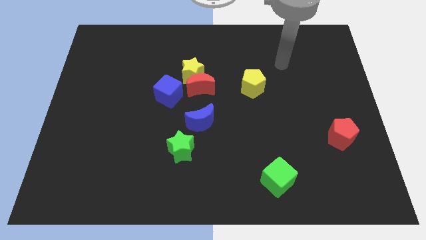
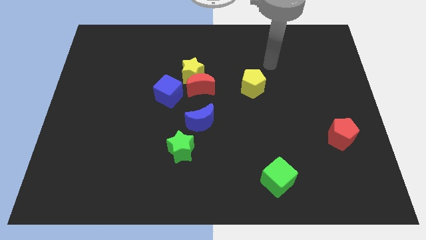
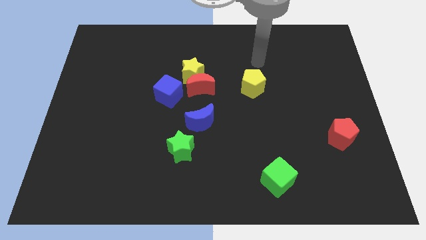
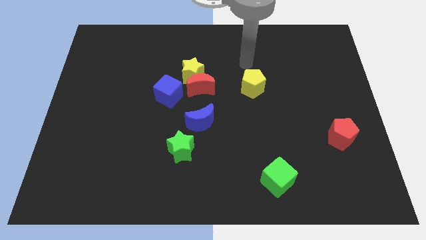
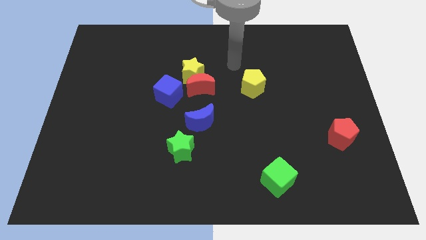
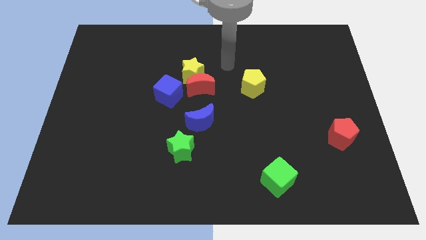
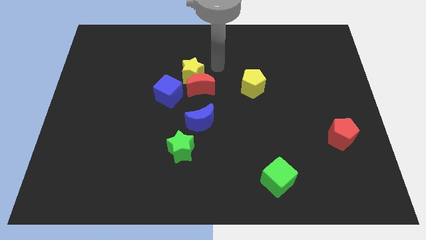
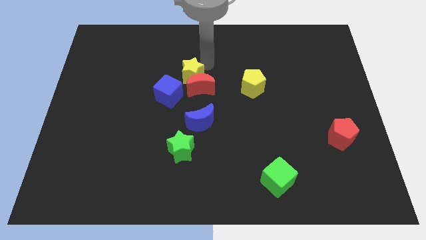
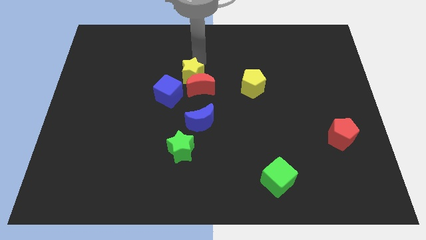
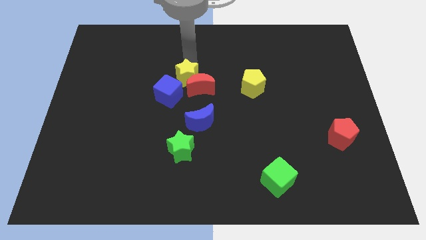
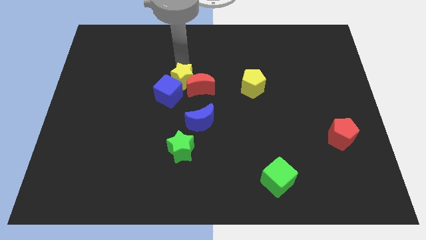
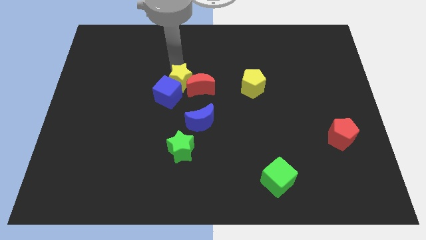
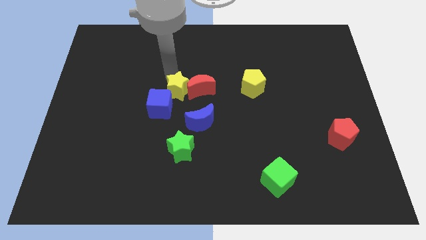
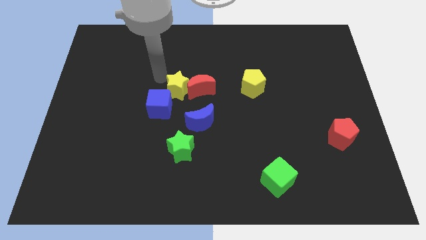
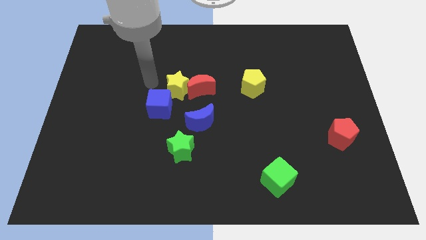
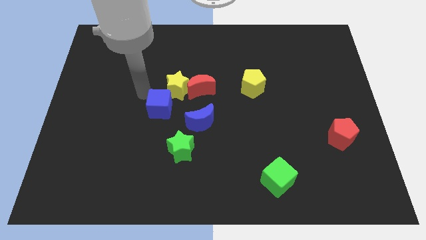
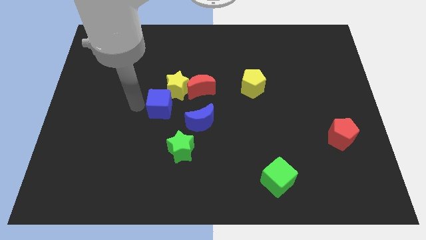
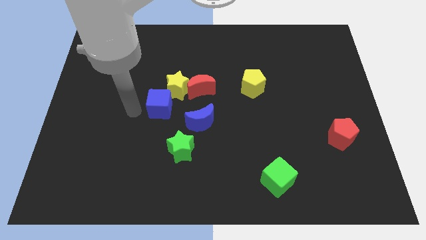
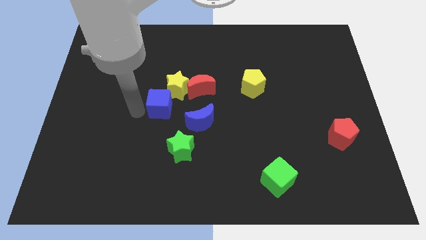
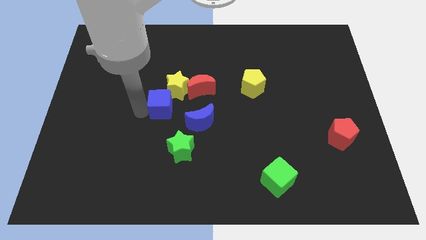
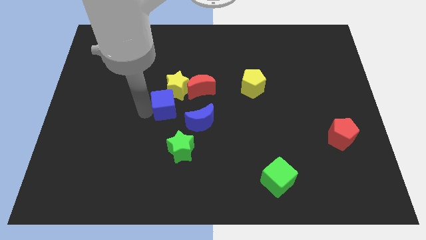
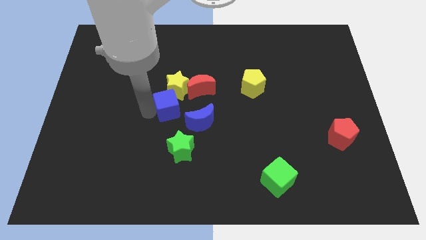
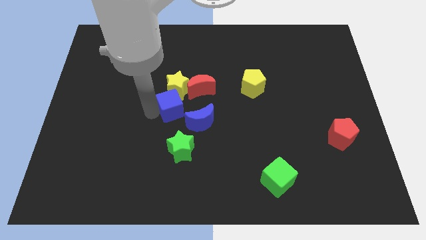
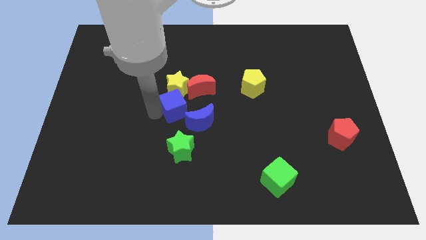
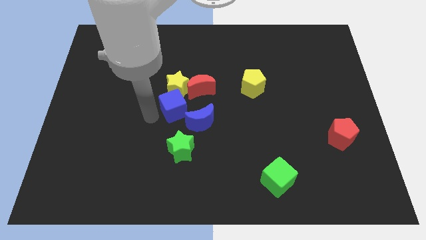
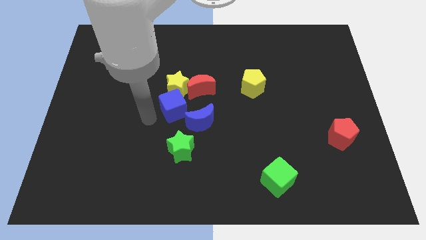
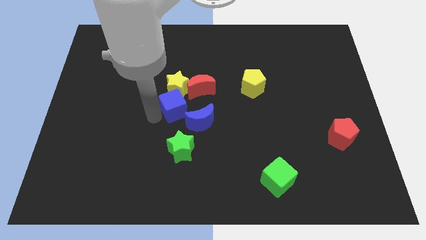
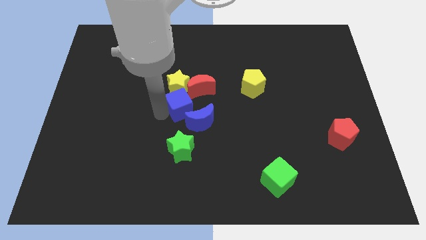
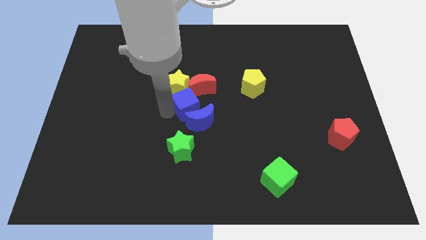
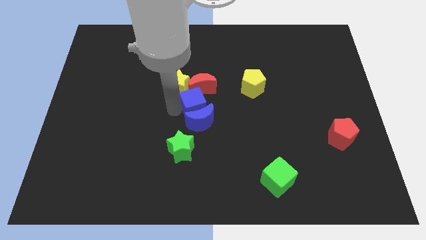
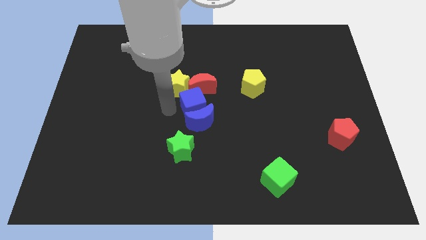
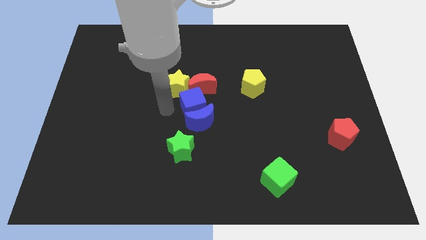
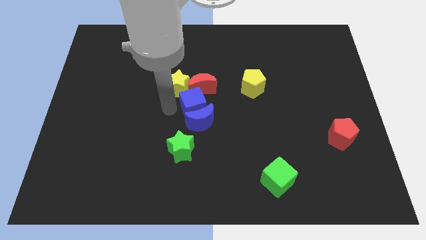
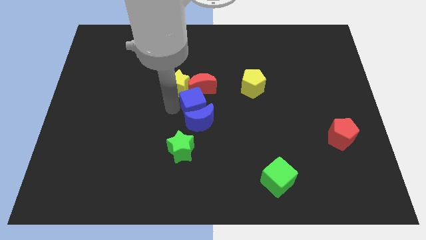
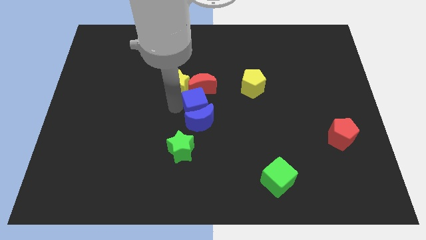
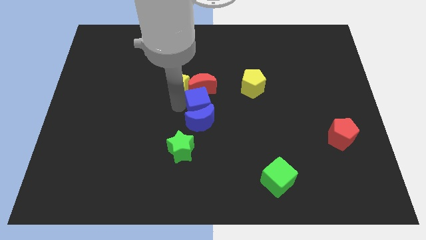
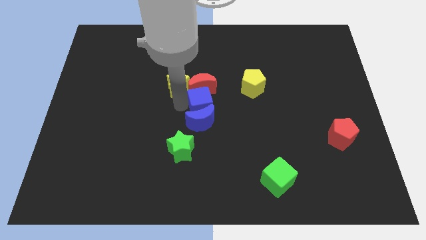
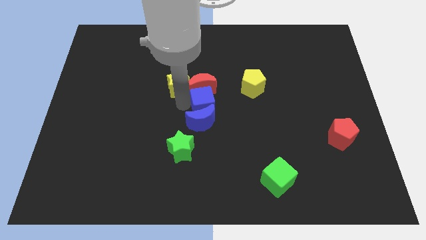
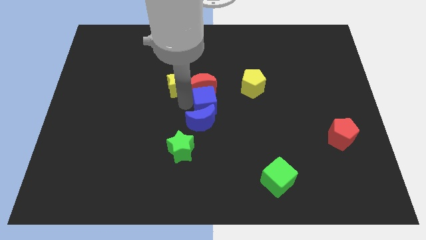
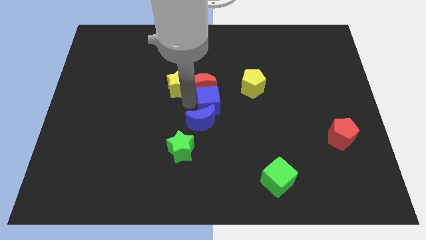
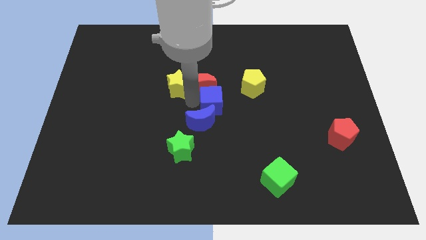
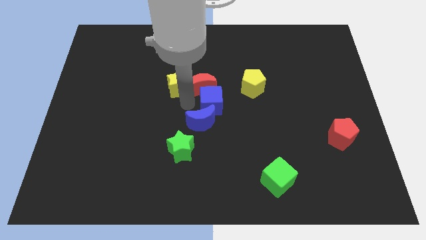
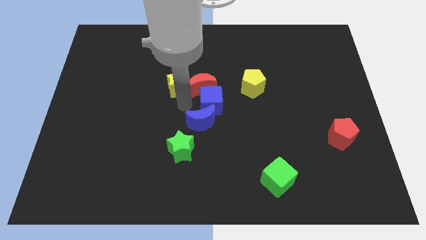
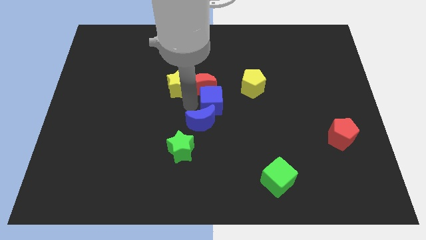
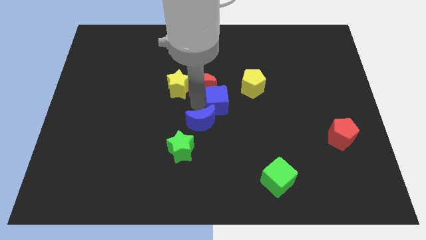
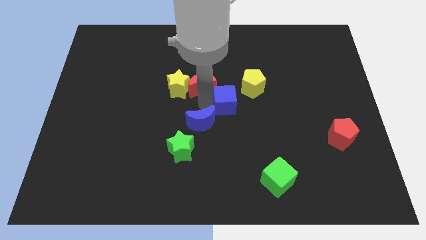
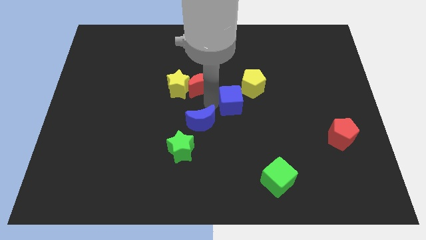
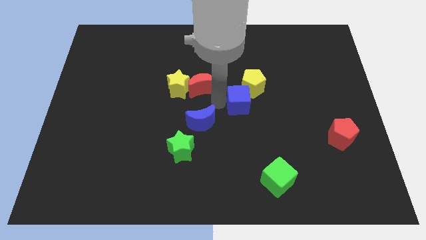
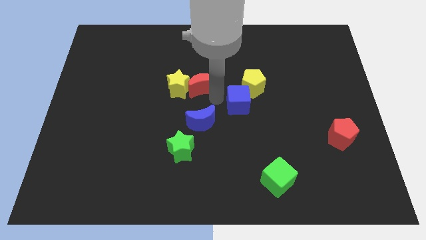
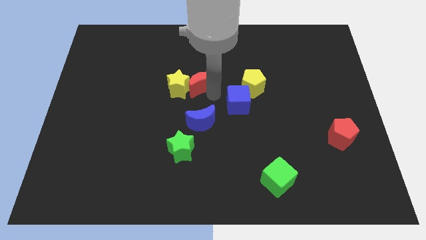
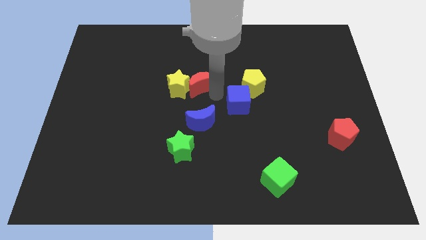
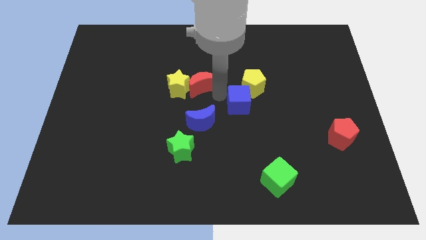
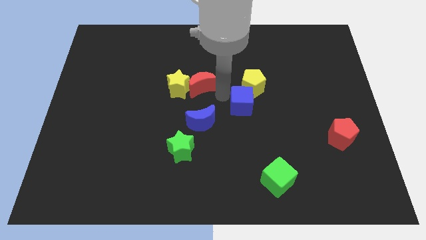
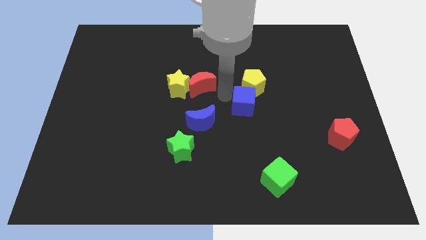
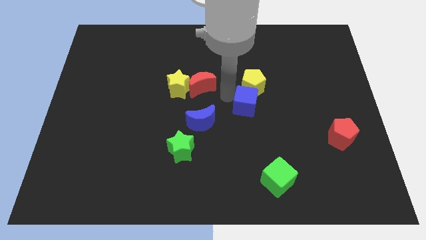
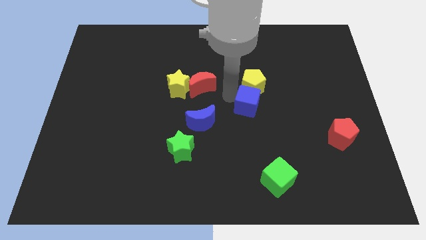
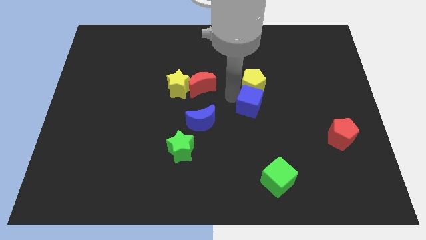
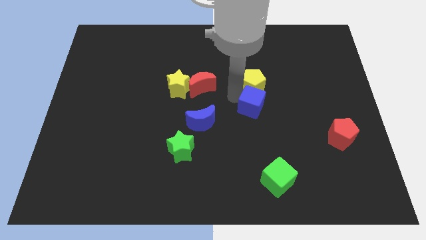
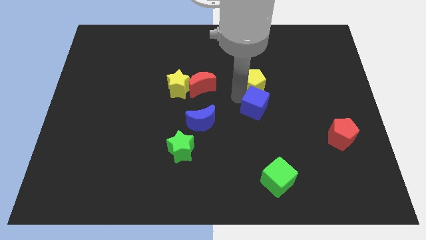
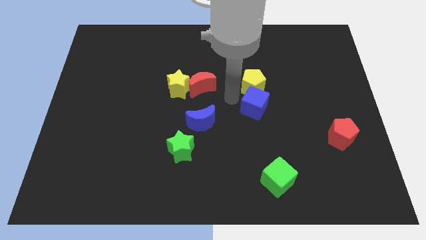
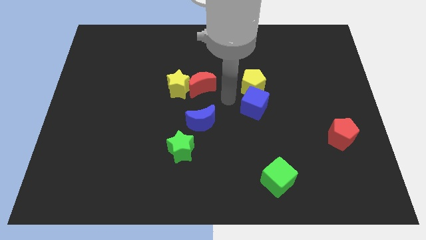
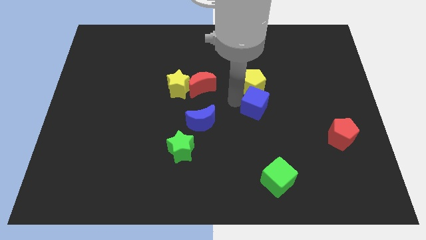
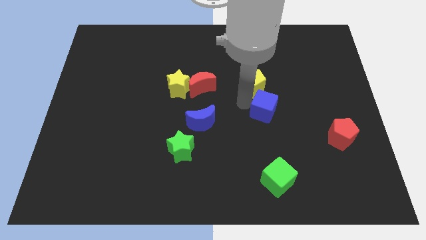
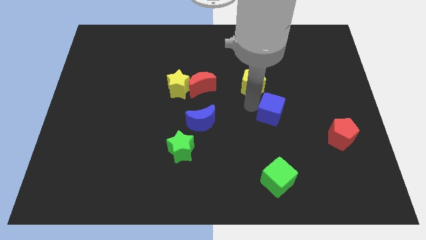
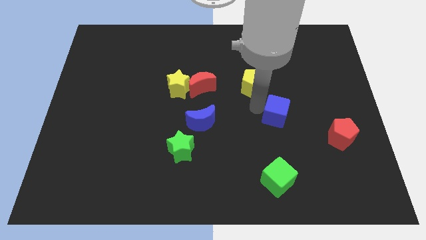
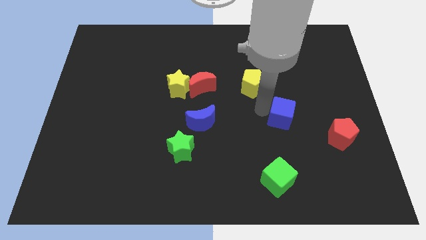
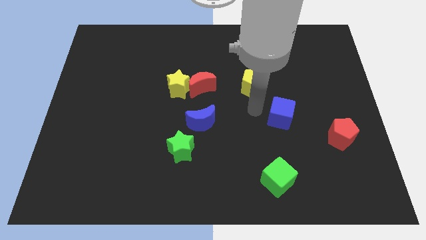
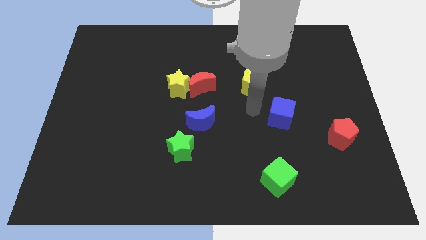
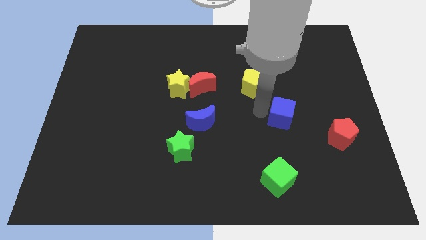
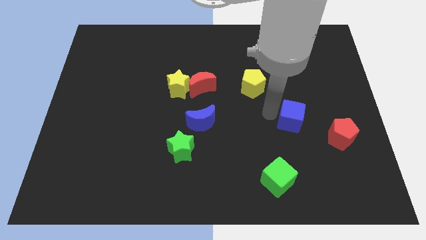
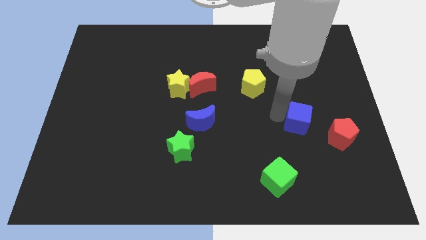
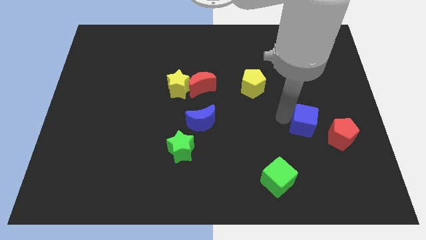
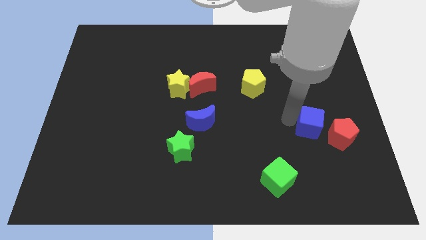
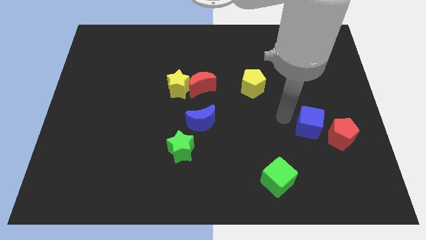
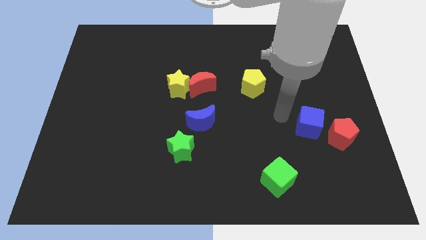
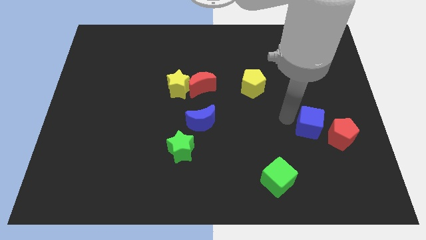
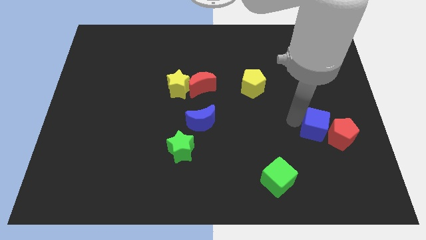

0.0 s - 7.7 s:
move the blue cube close to the red pentagon

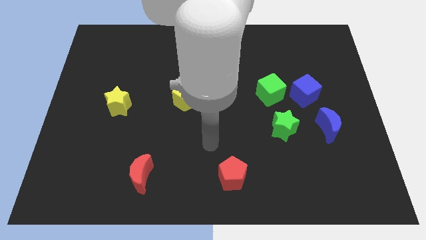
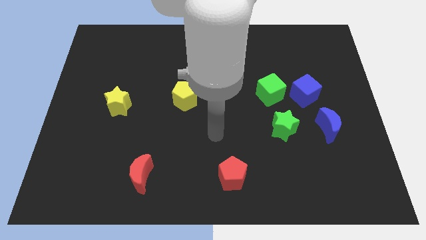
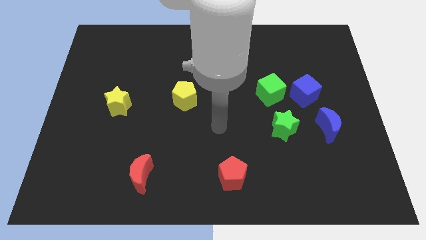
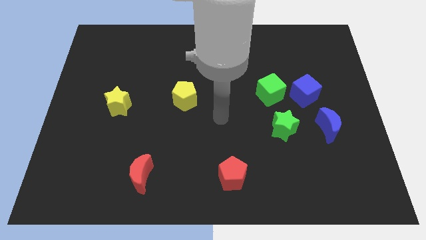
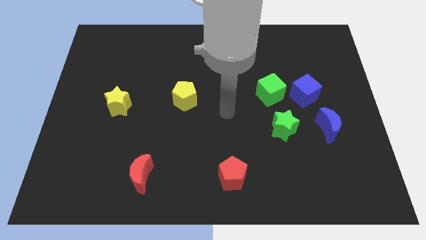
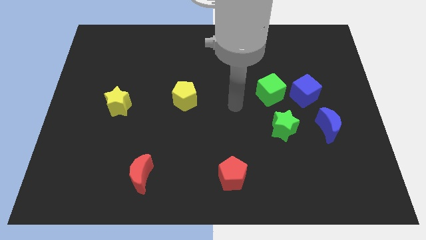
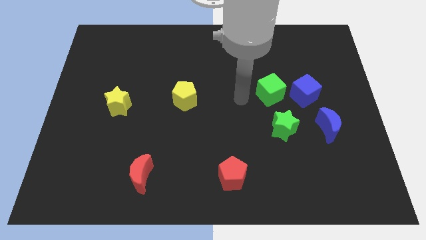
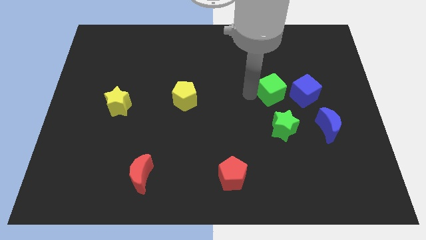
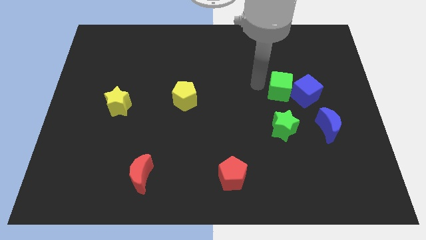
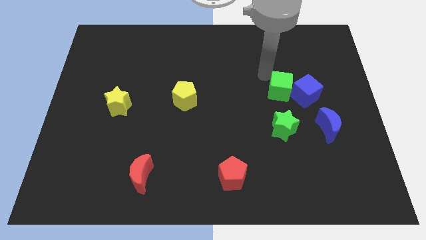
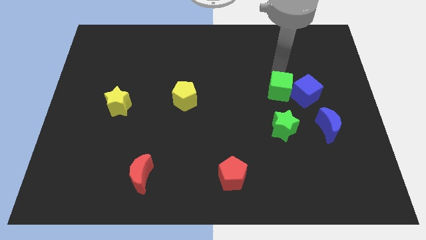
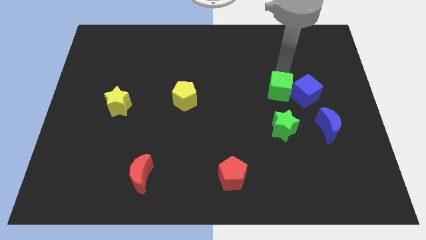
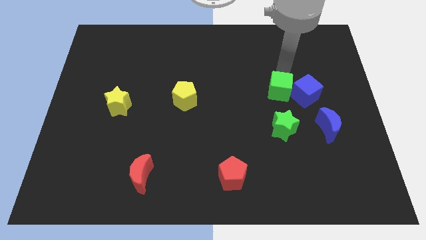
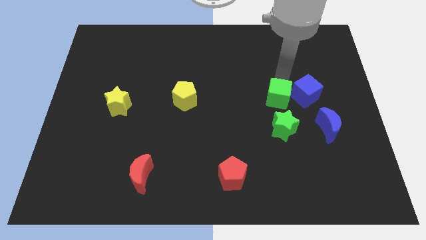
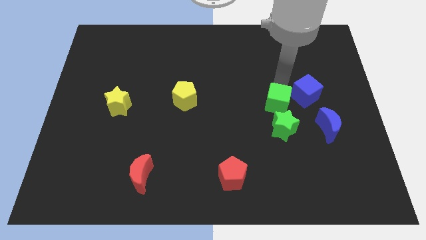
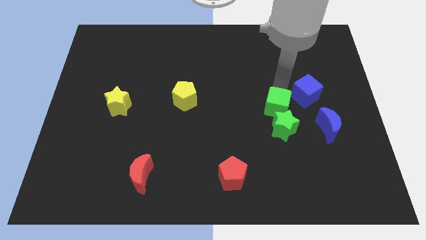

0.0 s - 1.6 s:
slide the green cube to the green star
